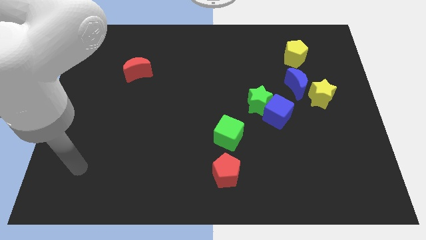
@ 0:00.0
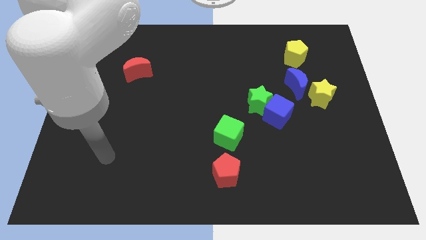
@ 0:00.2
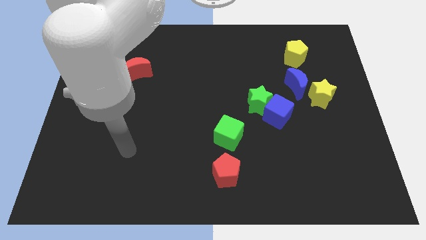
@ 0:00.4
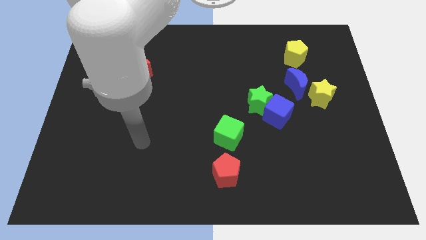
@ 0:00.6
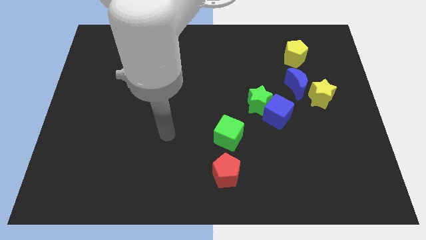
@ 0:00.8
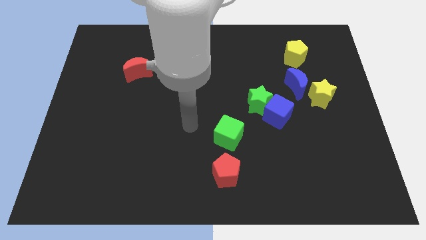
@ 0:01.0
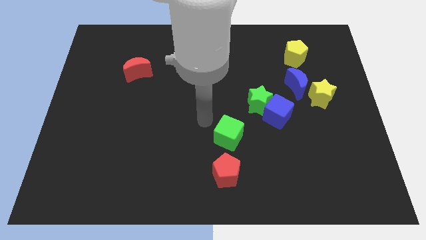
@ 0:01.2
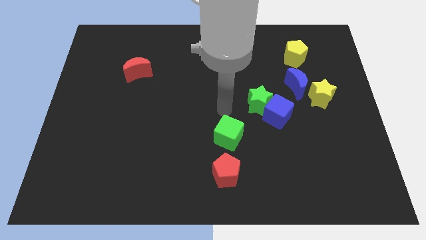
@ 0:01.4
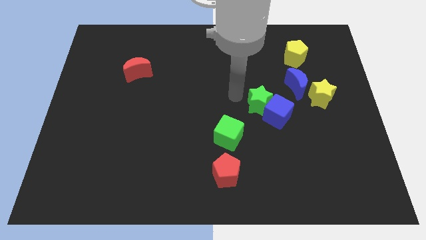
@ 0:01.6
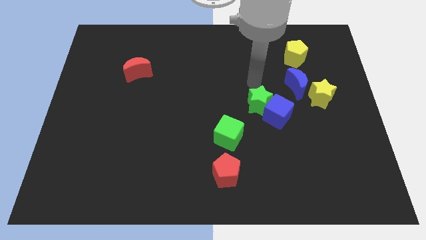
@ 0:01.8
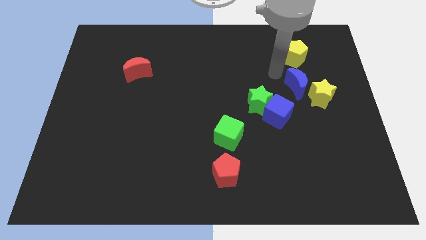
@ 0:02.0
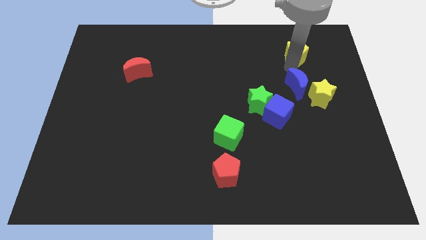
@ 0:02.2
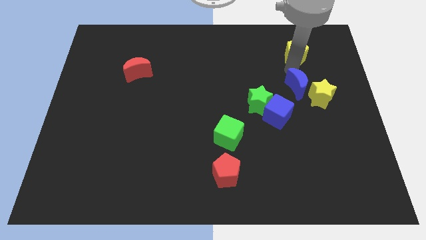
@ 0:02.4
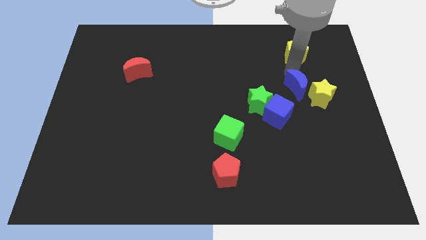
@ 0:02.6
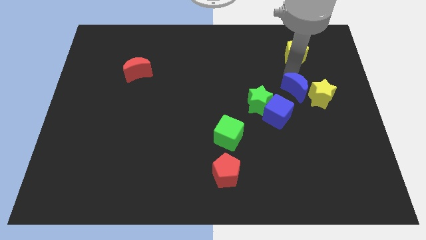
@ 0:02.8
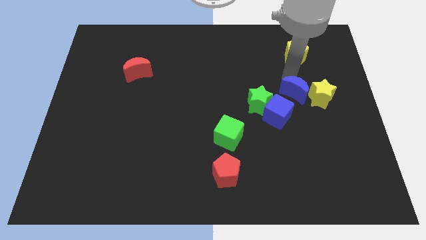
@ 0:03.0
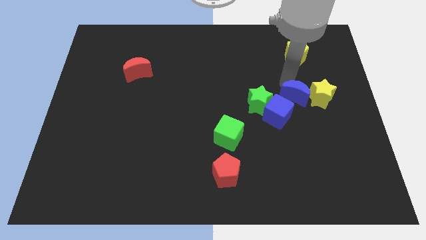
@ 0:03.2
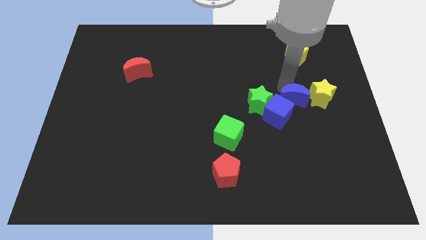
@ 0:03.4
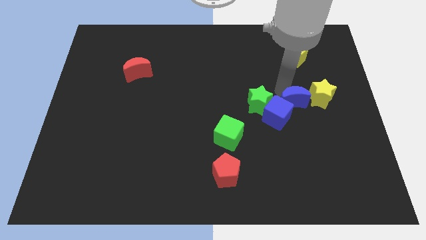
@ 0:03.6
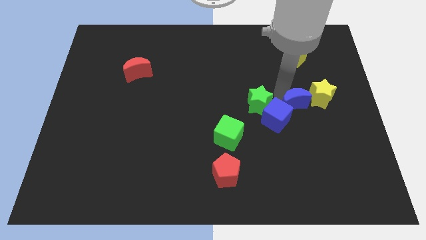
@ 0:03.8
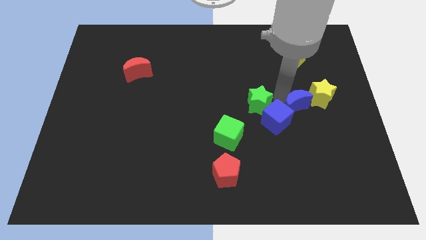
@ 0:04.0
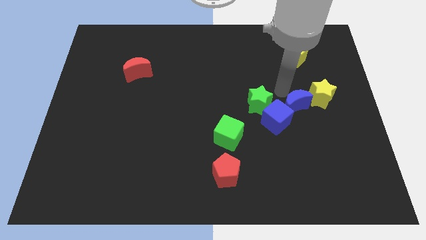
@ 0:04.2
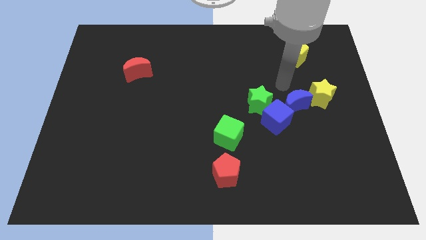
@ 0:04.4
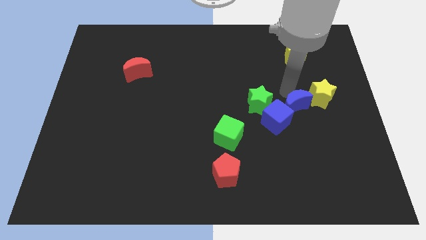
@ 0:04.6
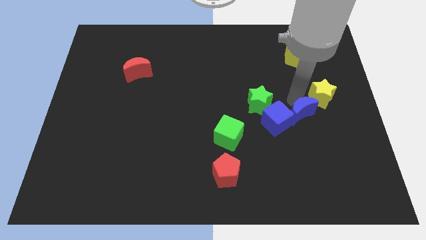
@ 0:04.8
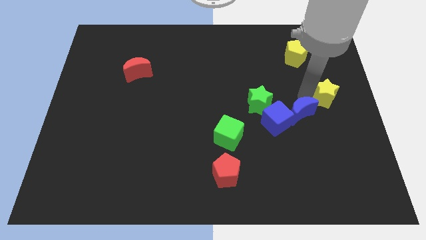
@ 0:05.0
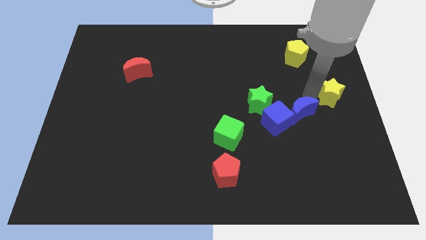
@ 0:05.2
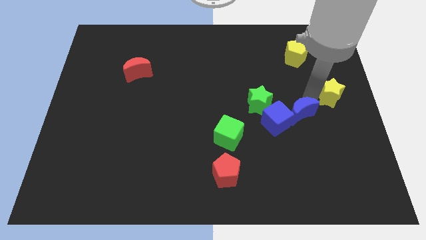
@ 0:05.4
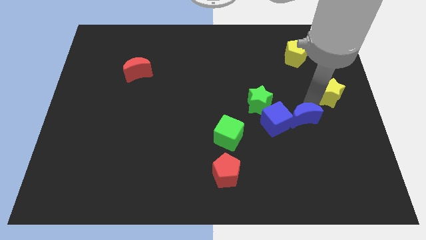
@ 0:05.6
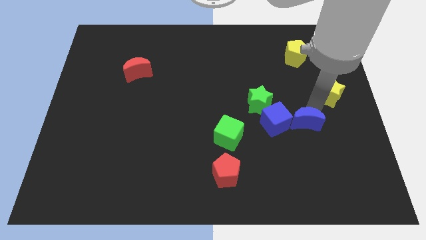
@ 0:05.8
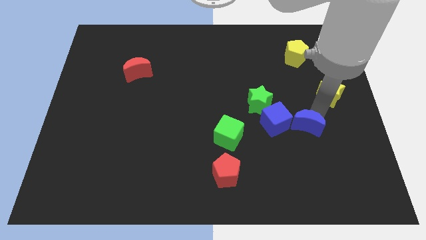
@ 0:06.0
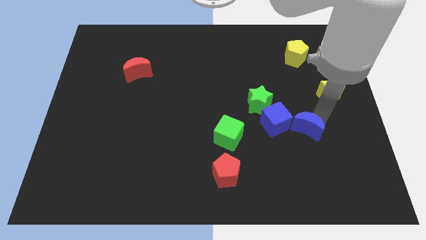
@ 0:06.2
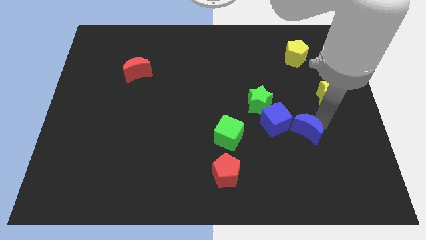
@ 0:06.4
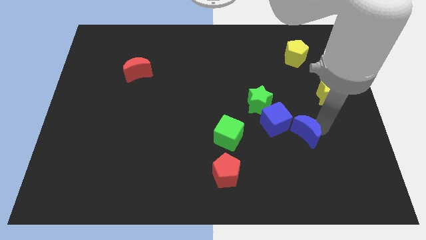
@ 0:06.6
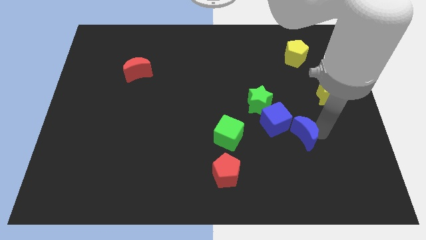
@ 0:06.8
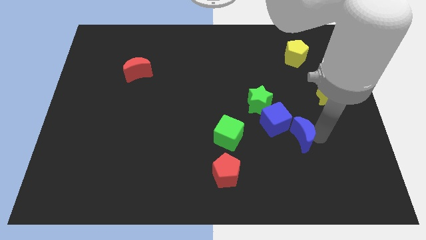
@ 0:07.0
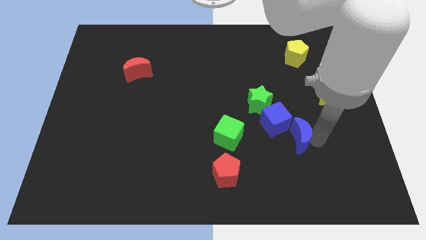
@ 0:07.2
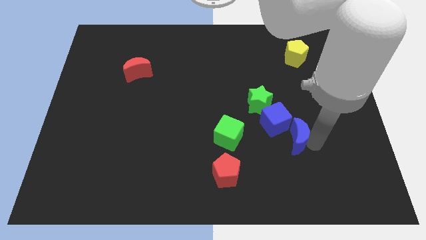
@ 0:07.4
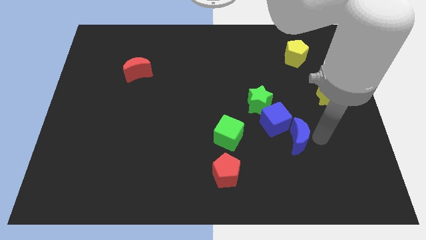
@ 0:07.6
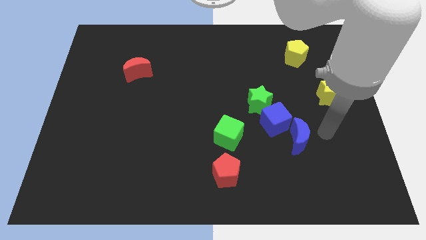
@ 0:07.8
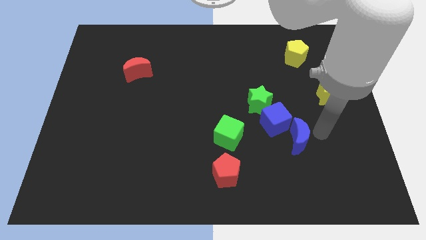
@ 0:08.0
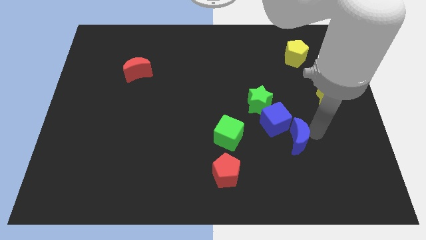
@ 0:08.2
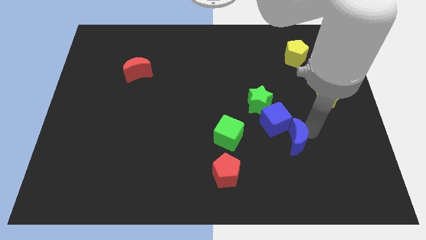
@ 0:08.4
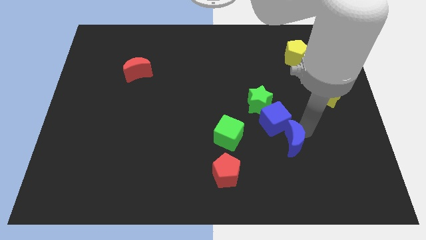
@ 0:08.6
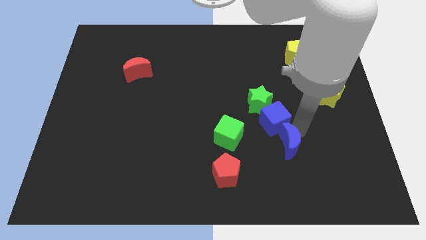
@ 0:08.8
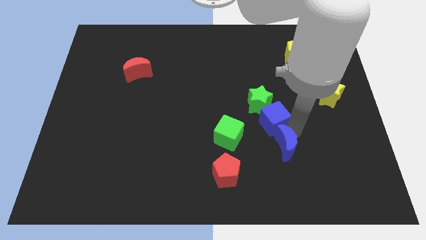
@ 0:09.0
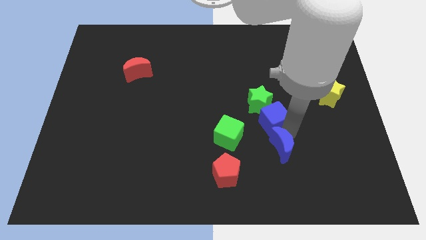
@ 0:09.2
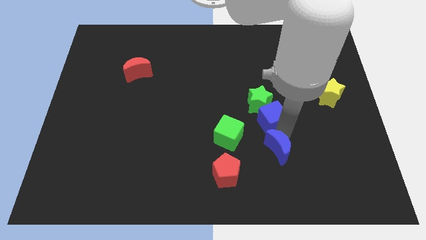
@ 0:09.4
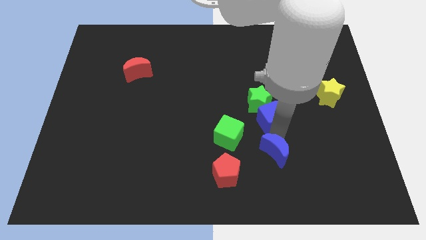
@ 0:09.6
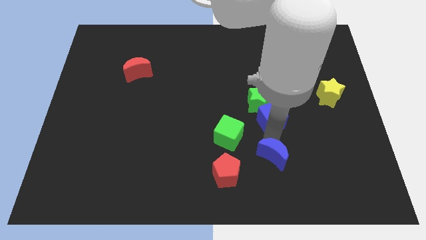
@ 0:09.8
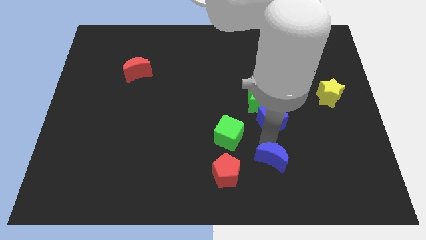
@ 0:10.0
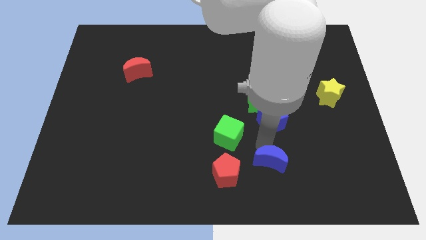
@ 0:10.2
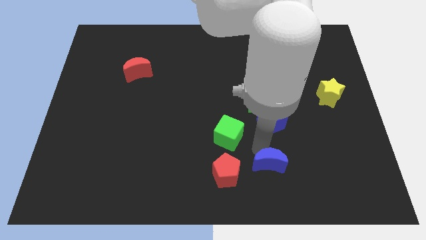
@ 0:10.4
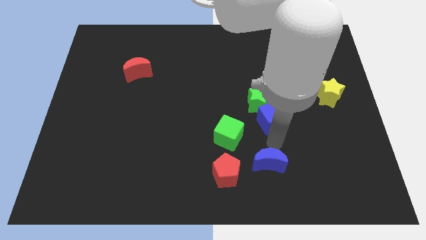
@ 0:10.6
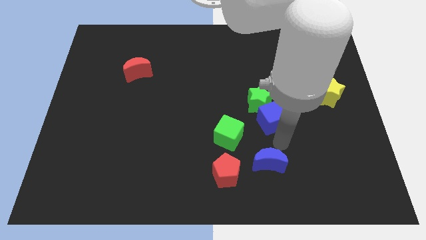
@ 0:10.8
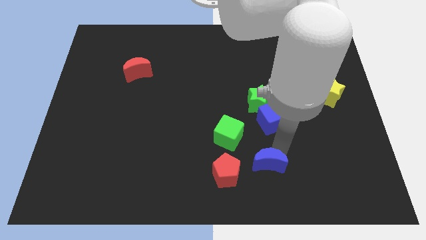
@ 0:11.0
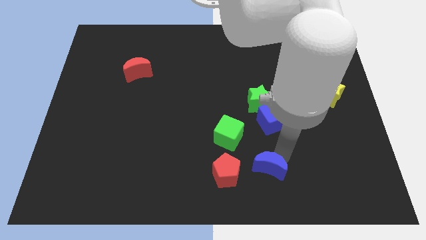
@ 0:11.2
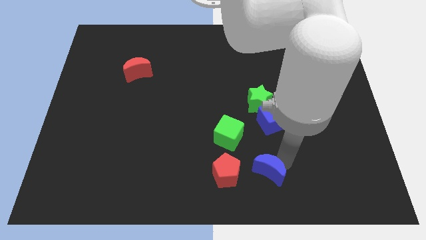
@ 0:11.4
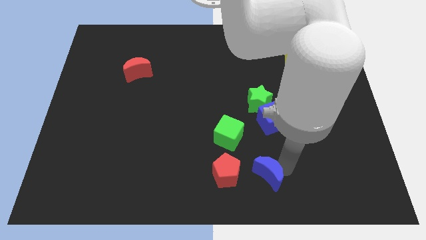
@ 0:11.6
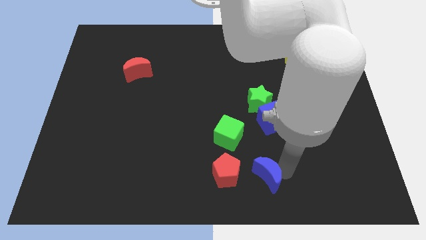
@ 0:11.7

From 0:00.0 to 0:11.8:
move the blue moon to the bottom side
